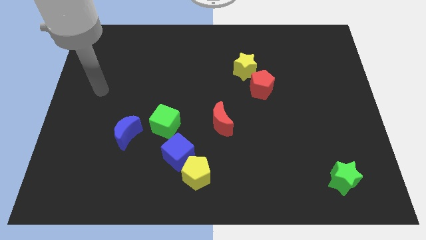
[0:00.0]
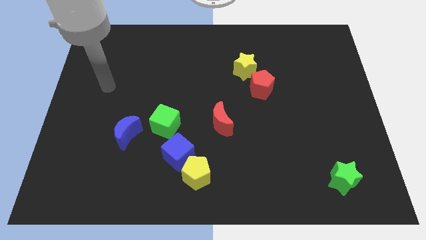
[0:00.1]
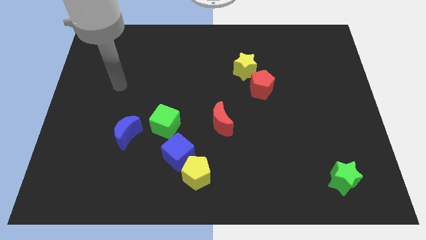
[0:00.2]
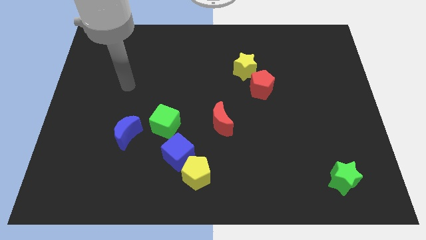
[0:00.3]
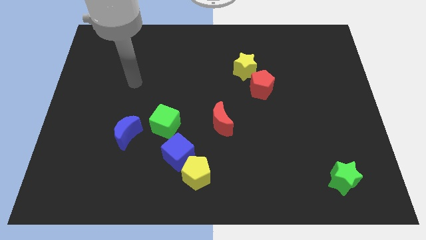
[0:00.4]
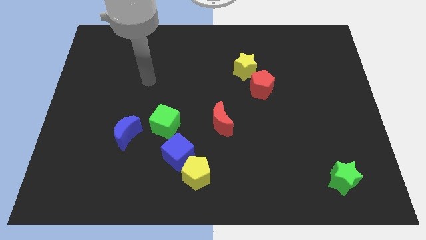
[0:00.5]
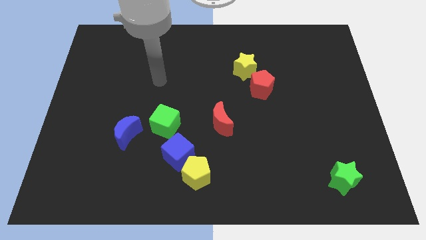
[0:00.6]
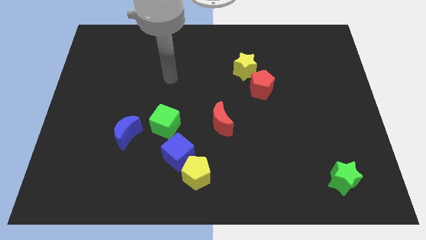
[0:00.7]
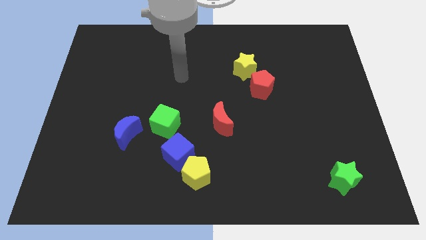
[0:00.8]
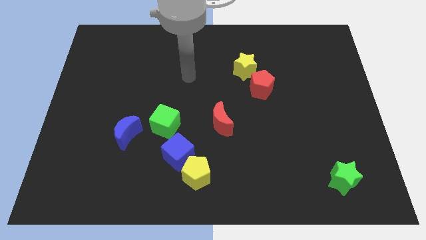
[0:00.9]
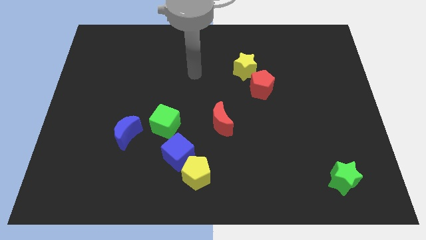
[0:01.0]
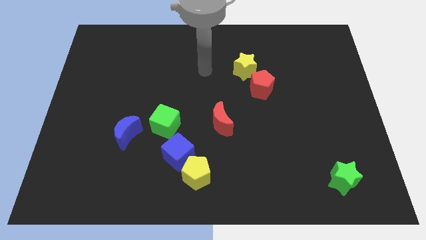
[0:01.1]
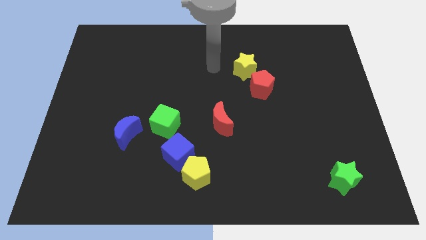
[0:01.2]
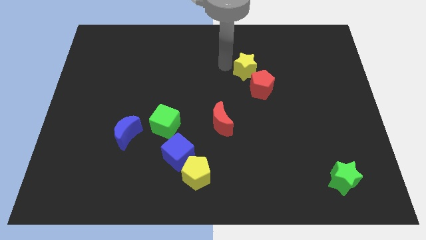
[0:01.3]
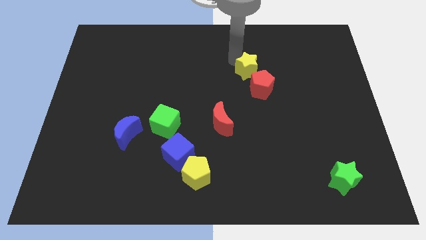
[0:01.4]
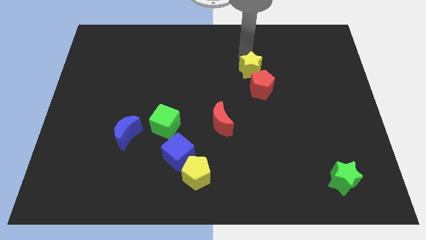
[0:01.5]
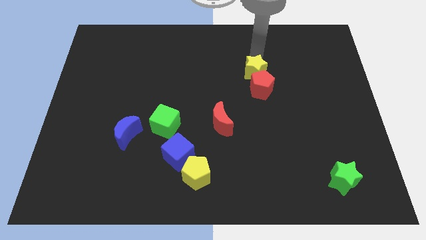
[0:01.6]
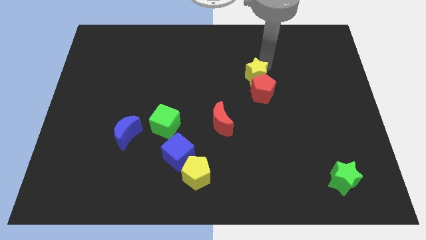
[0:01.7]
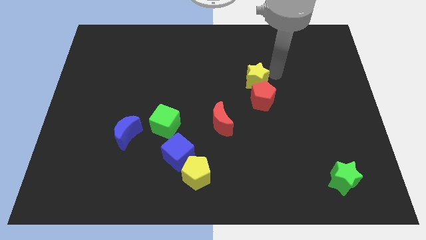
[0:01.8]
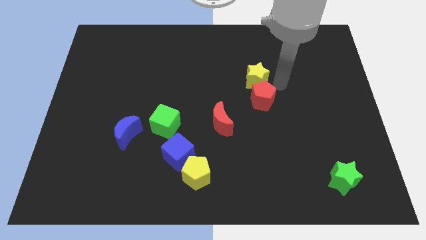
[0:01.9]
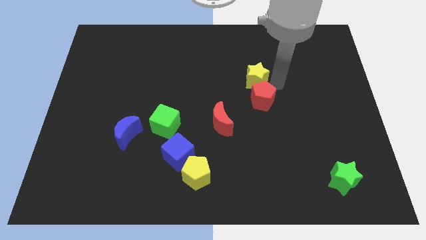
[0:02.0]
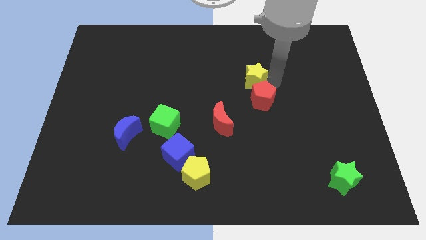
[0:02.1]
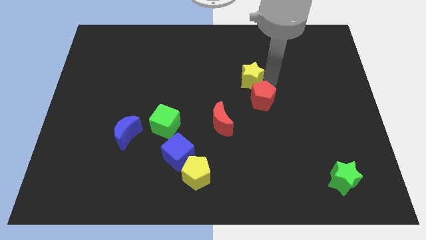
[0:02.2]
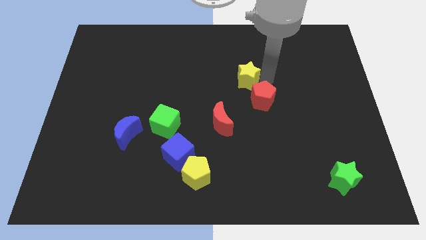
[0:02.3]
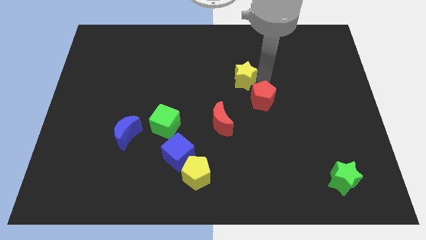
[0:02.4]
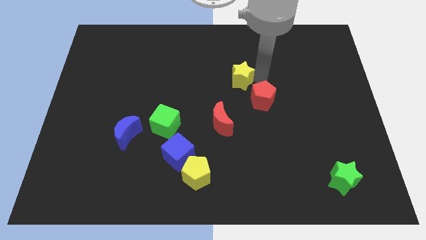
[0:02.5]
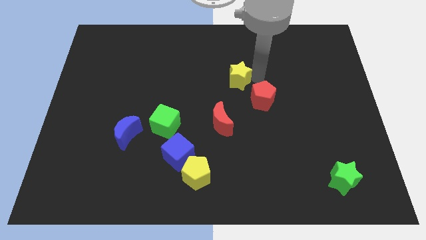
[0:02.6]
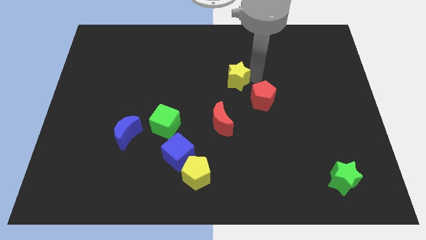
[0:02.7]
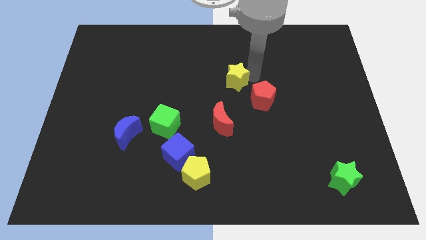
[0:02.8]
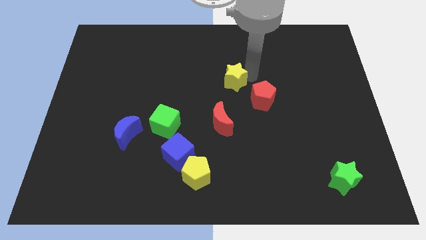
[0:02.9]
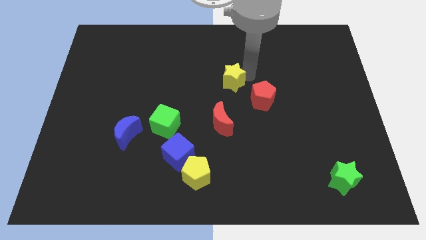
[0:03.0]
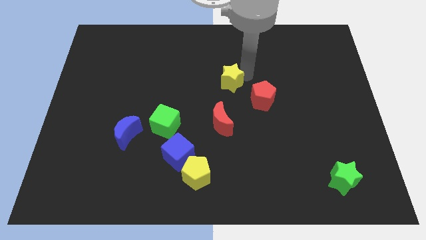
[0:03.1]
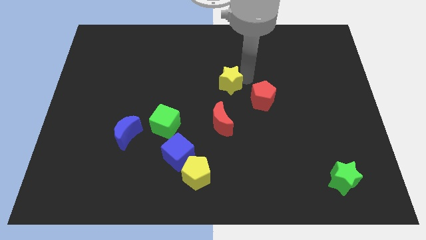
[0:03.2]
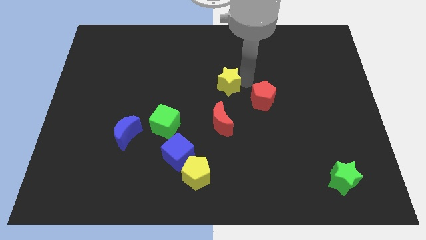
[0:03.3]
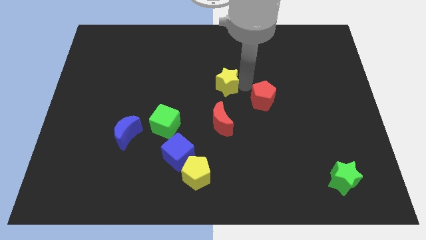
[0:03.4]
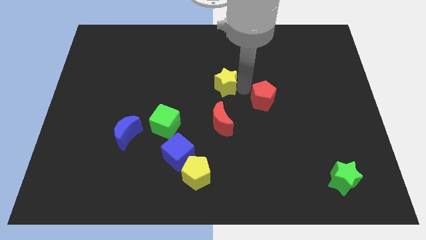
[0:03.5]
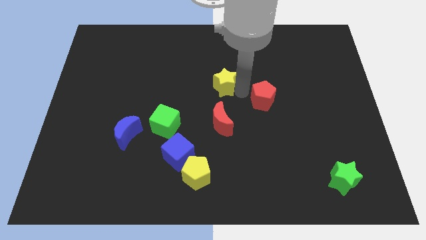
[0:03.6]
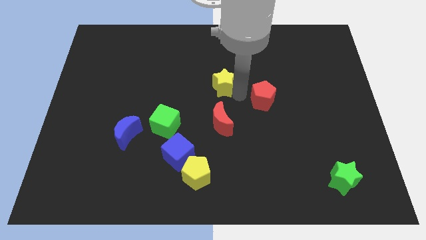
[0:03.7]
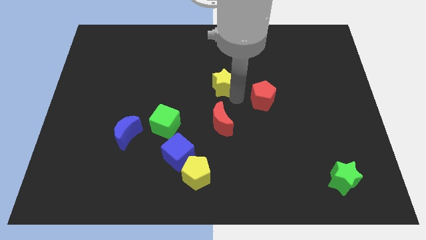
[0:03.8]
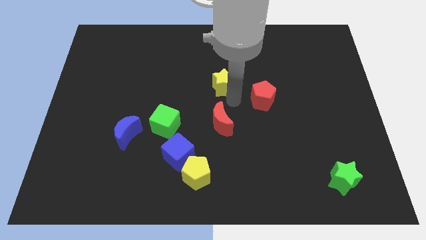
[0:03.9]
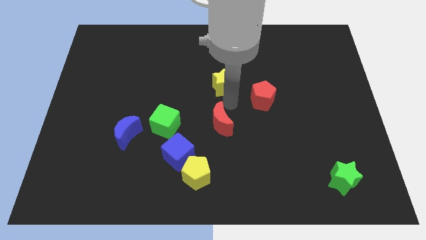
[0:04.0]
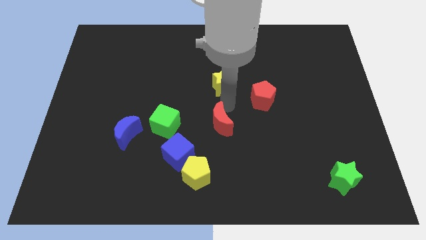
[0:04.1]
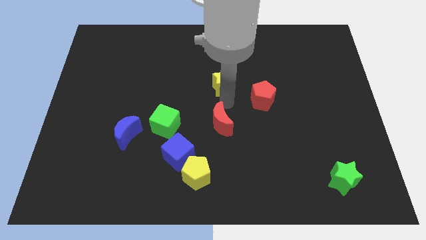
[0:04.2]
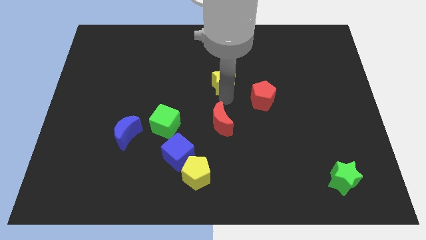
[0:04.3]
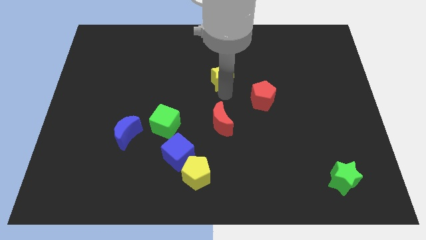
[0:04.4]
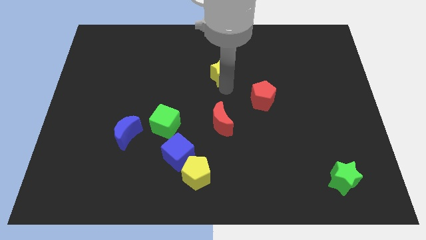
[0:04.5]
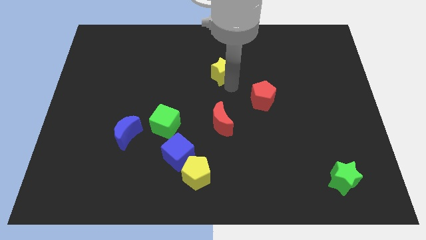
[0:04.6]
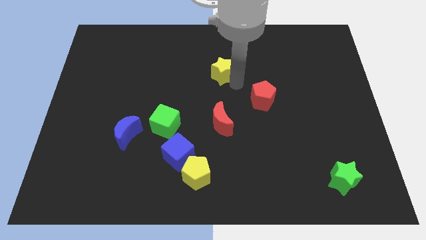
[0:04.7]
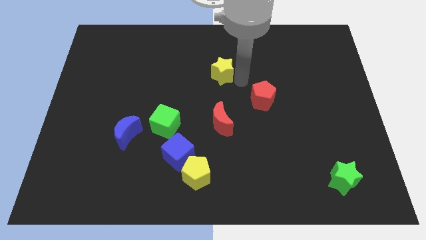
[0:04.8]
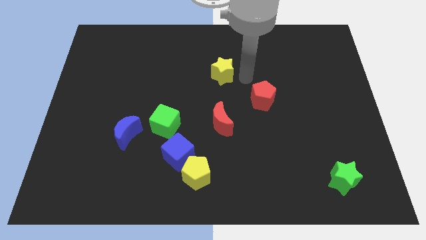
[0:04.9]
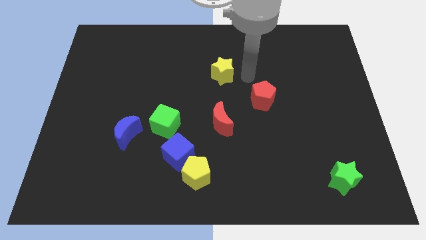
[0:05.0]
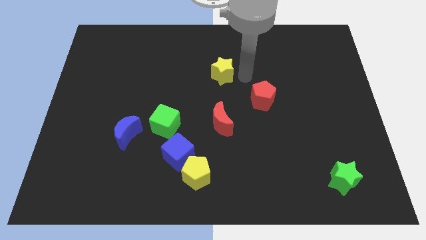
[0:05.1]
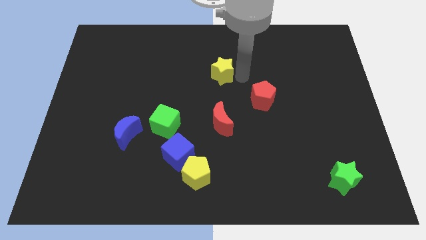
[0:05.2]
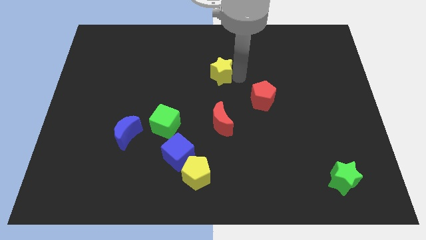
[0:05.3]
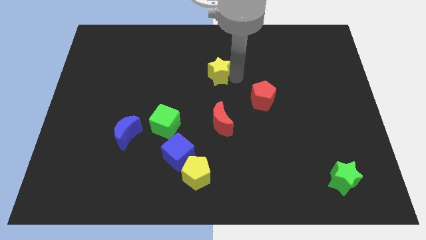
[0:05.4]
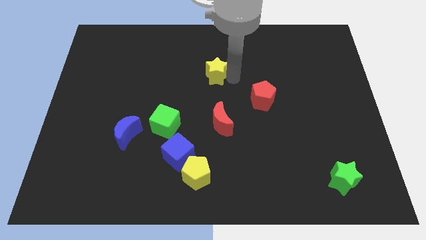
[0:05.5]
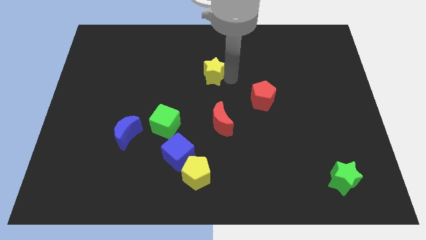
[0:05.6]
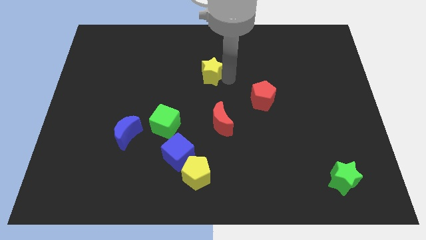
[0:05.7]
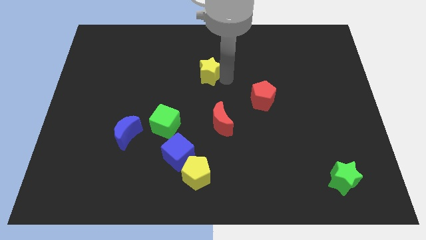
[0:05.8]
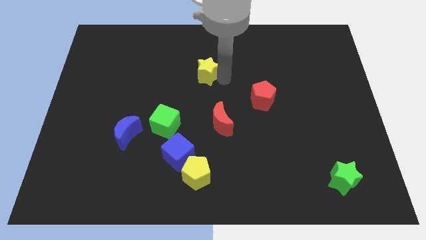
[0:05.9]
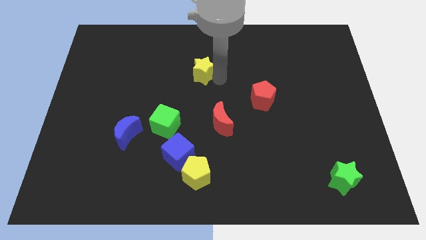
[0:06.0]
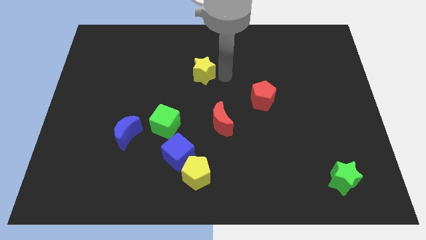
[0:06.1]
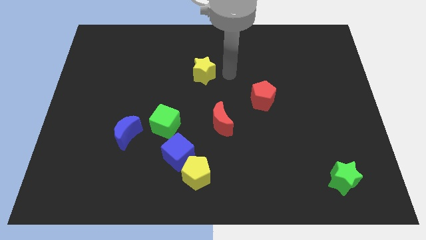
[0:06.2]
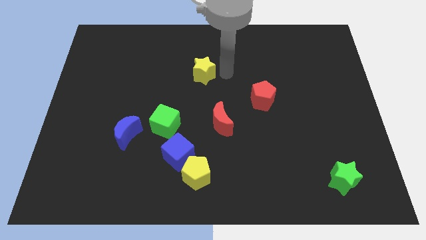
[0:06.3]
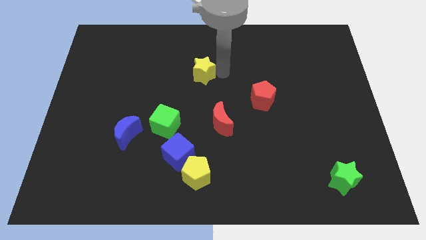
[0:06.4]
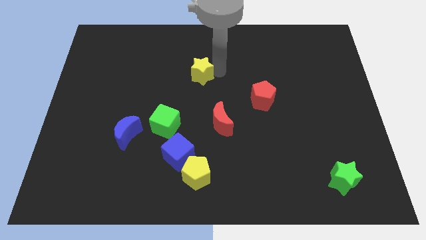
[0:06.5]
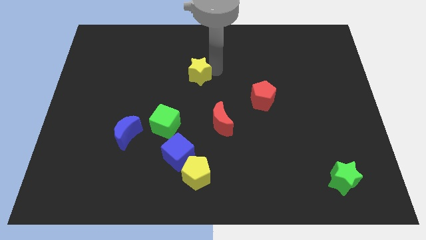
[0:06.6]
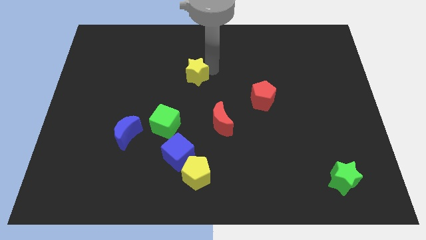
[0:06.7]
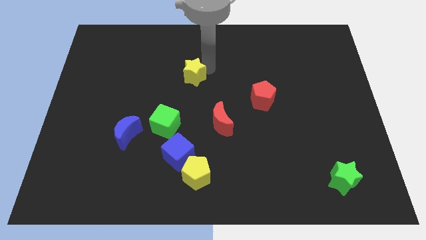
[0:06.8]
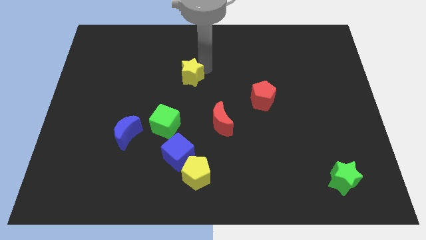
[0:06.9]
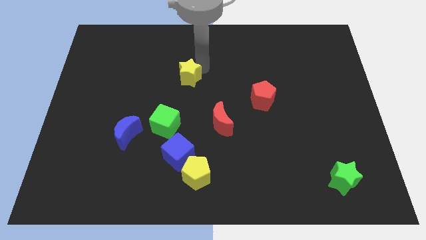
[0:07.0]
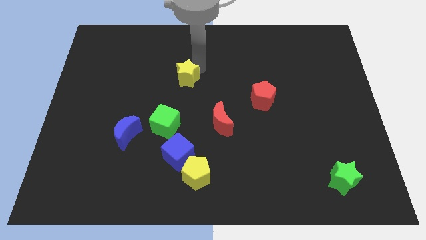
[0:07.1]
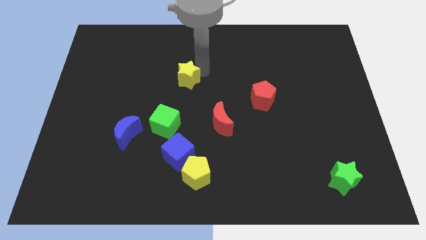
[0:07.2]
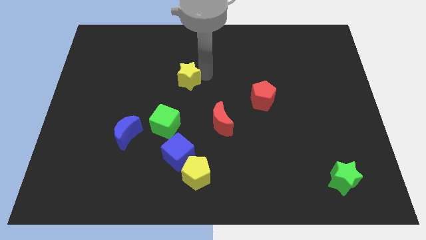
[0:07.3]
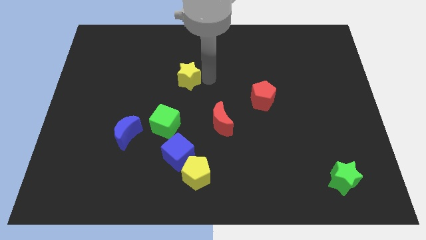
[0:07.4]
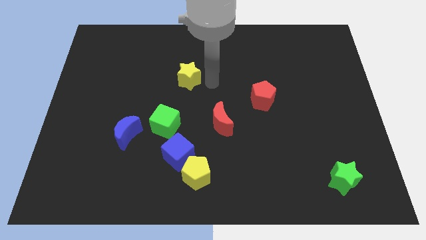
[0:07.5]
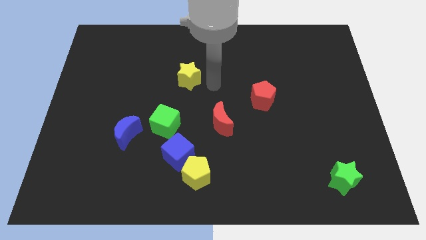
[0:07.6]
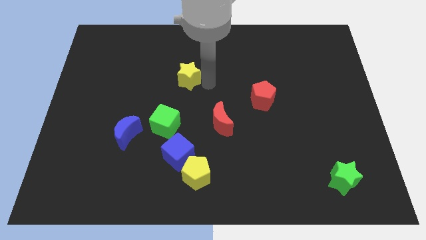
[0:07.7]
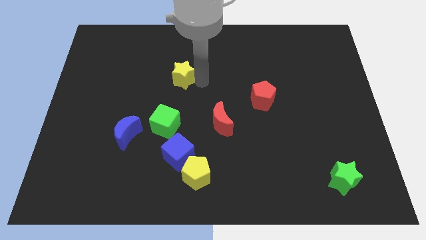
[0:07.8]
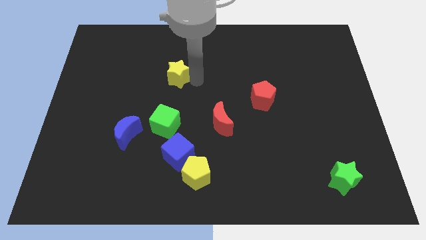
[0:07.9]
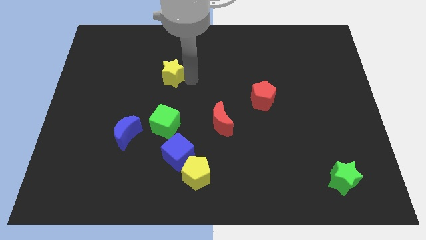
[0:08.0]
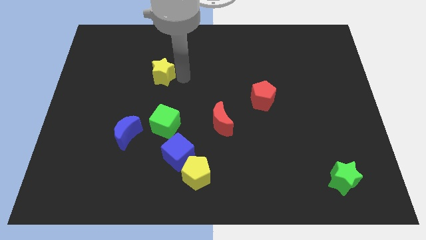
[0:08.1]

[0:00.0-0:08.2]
slide the yellow star left
